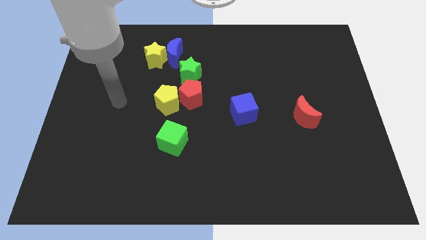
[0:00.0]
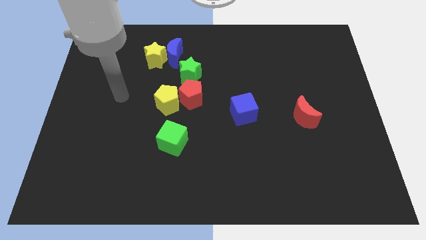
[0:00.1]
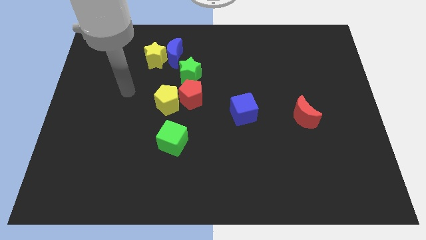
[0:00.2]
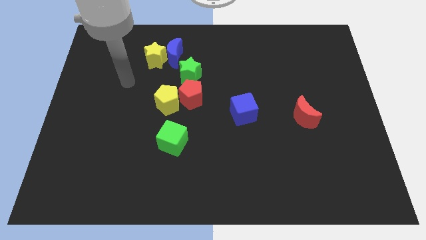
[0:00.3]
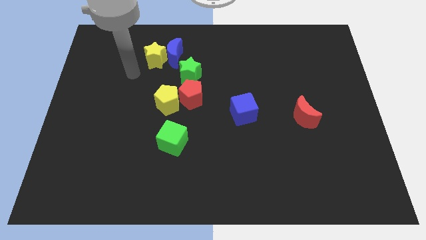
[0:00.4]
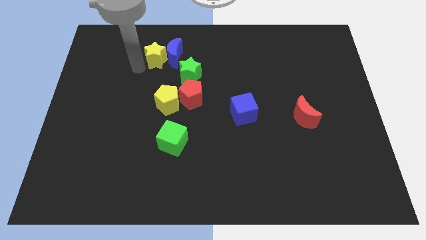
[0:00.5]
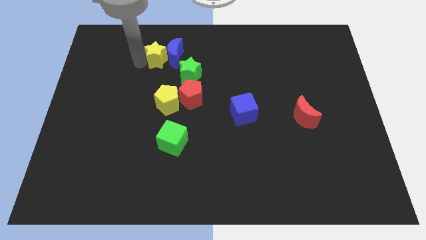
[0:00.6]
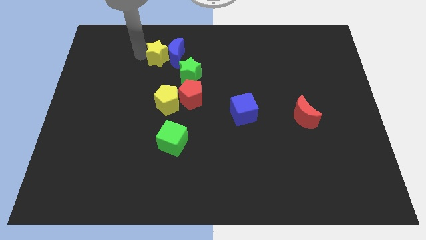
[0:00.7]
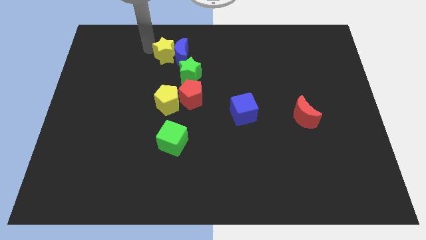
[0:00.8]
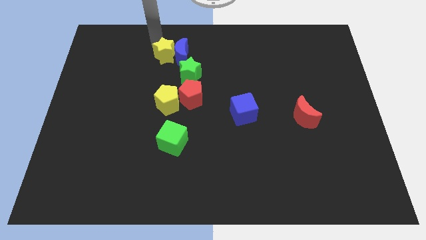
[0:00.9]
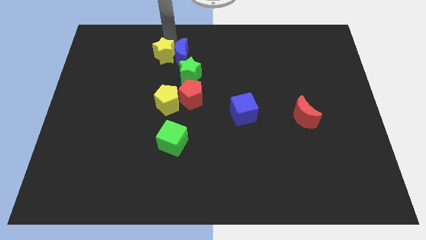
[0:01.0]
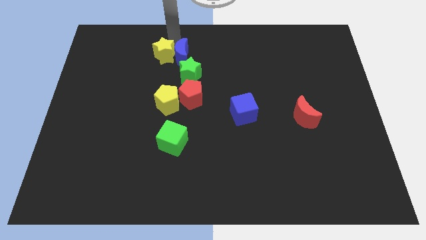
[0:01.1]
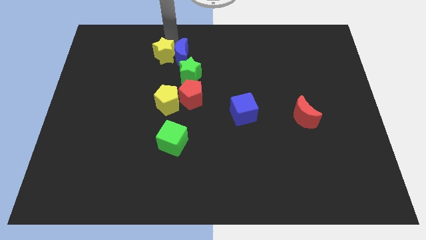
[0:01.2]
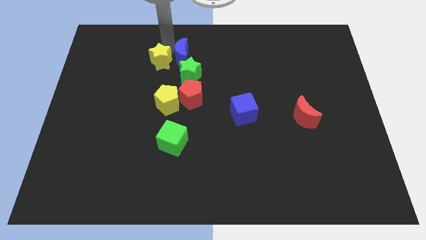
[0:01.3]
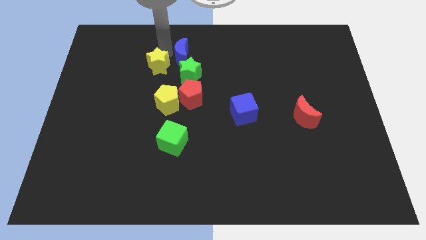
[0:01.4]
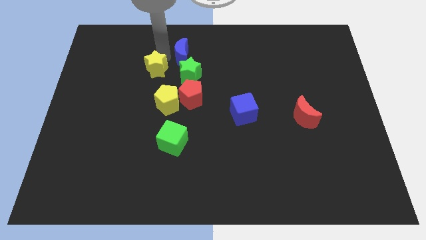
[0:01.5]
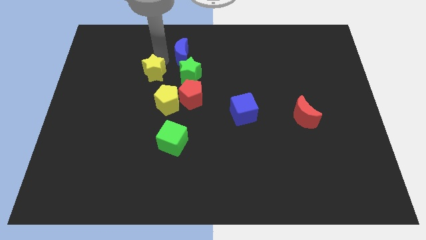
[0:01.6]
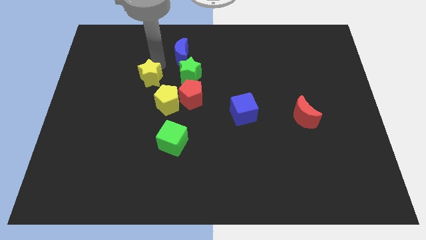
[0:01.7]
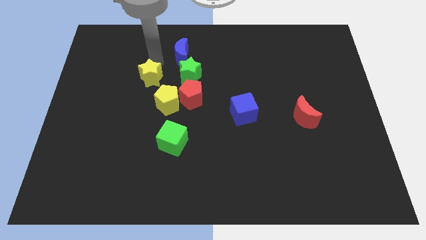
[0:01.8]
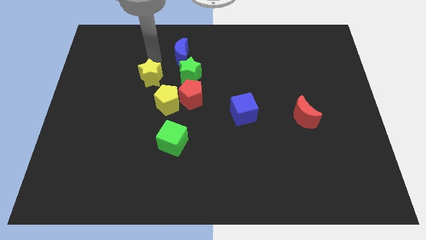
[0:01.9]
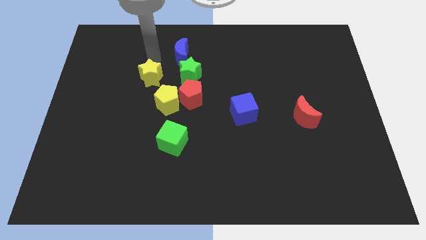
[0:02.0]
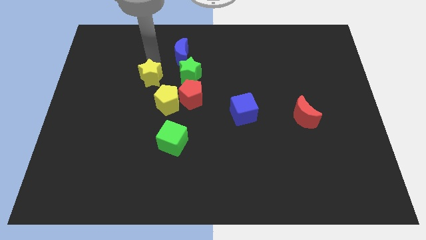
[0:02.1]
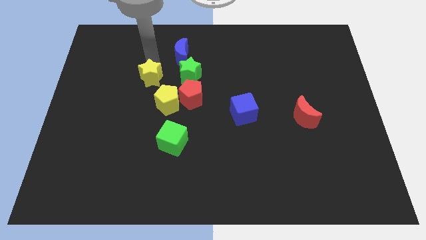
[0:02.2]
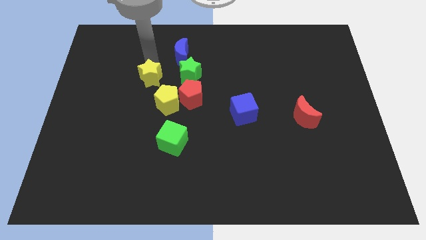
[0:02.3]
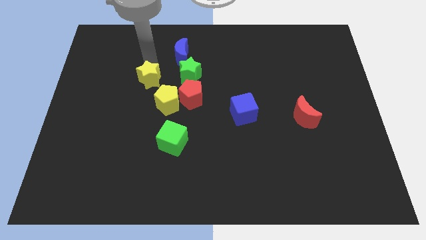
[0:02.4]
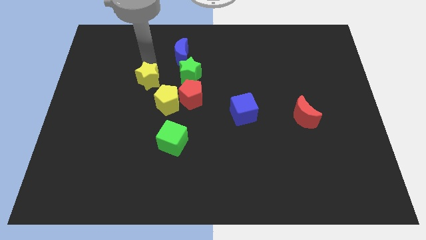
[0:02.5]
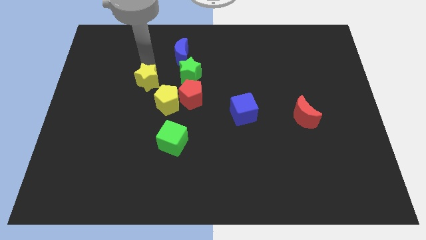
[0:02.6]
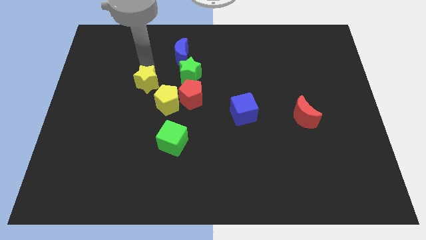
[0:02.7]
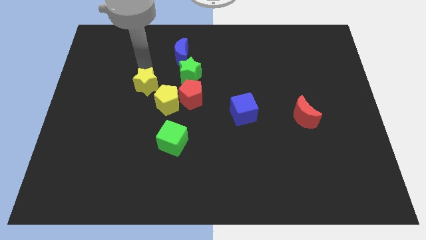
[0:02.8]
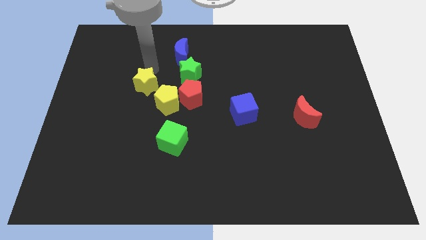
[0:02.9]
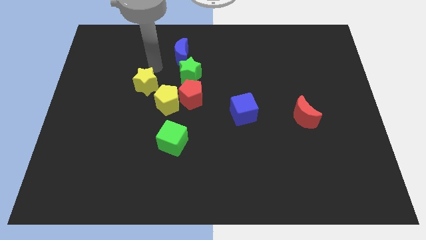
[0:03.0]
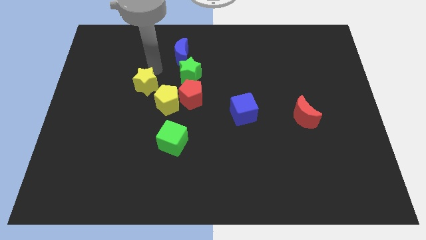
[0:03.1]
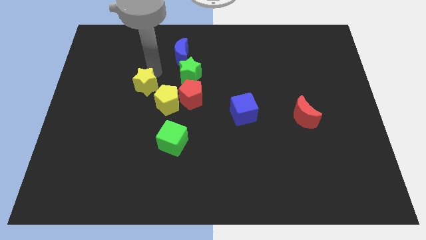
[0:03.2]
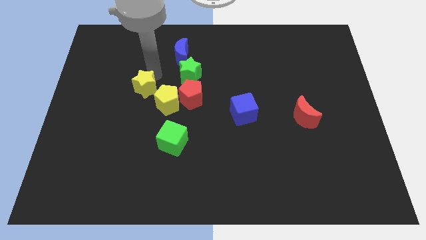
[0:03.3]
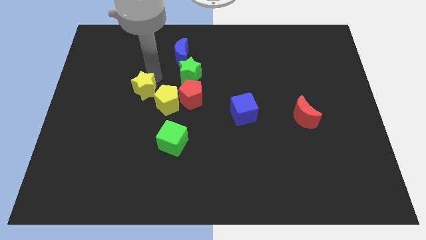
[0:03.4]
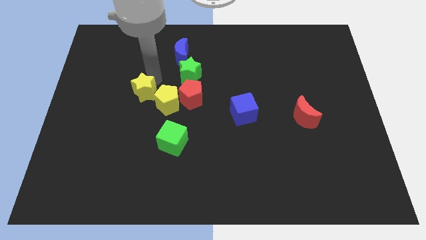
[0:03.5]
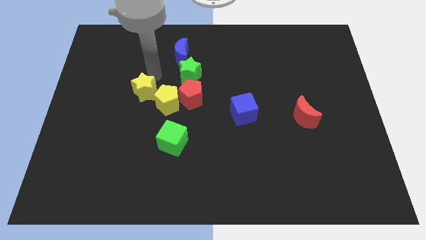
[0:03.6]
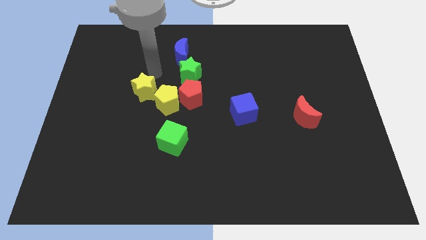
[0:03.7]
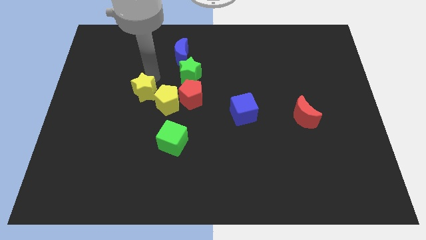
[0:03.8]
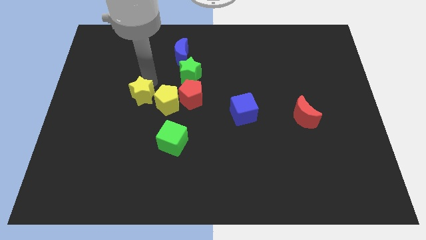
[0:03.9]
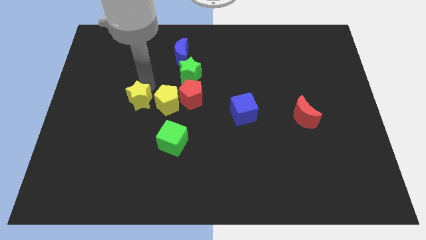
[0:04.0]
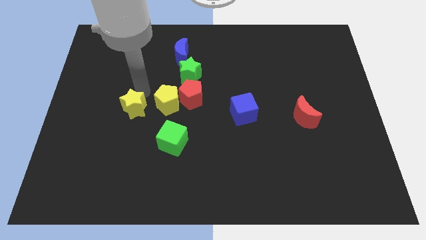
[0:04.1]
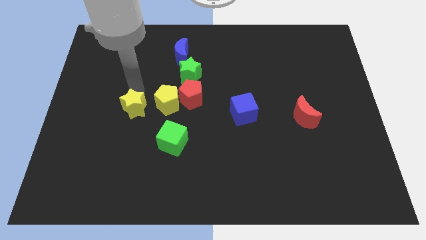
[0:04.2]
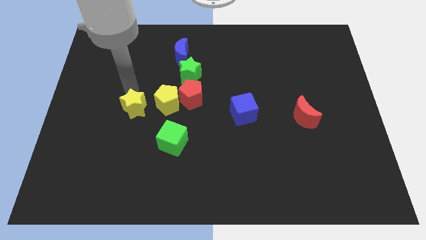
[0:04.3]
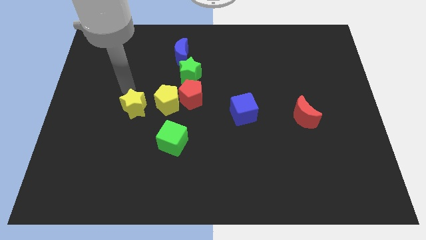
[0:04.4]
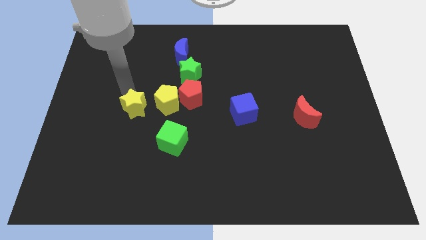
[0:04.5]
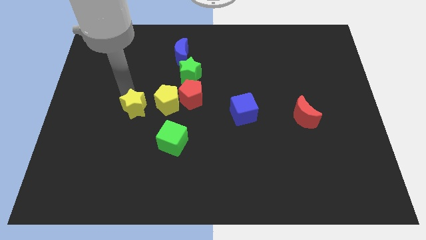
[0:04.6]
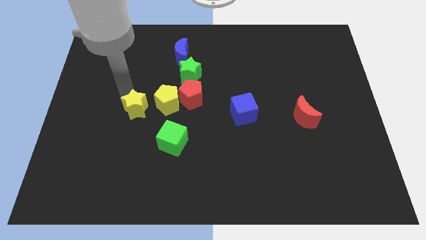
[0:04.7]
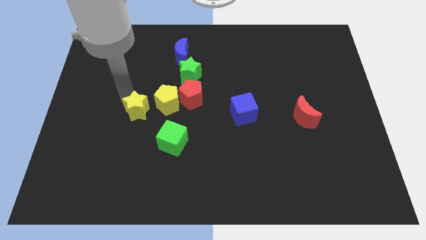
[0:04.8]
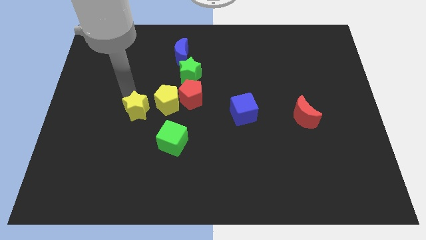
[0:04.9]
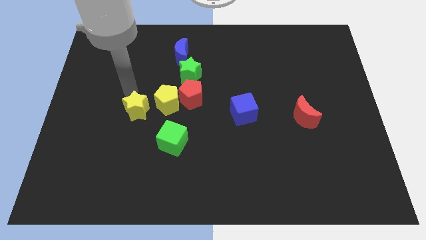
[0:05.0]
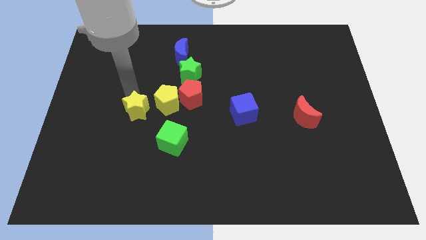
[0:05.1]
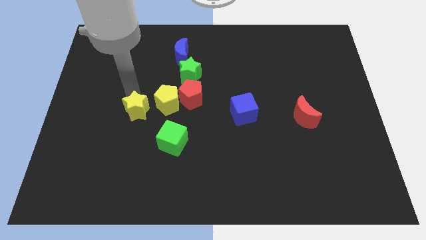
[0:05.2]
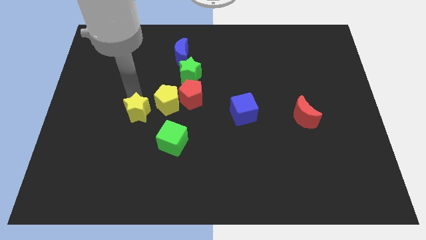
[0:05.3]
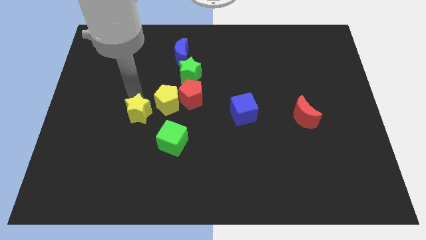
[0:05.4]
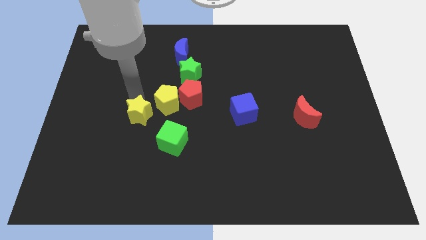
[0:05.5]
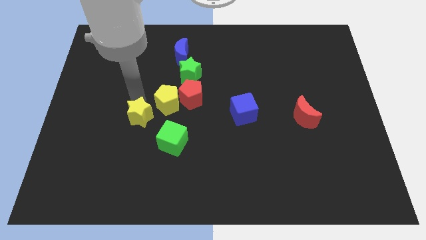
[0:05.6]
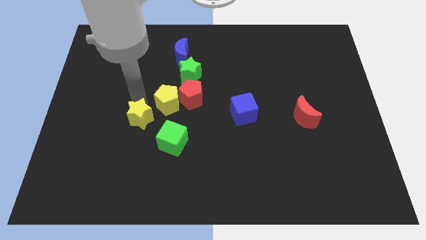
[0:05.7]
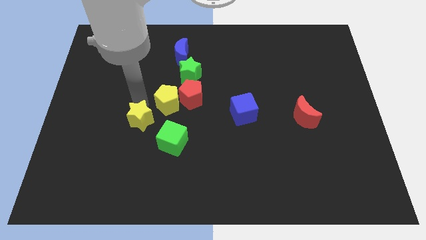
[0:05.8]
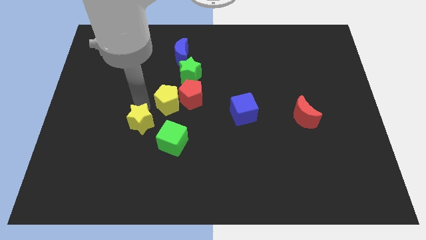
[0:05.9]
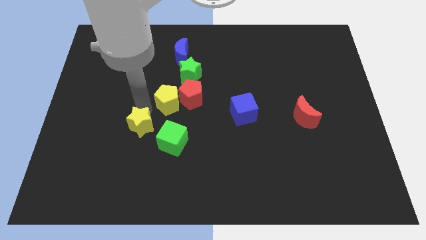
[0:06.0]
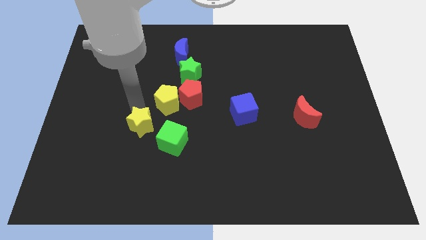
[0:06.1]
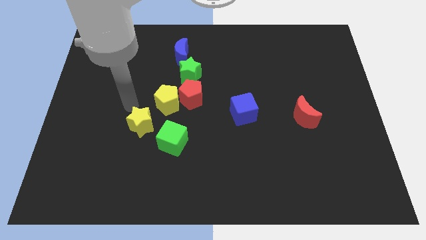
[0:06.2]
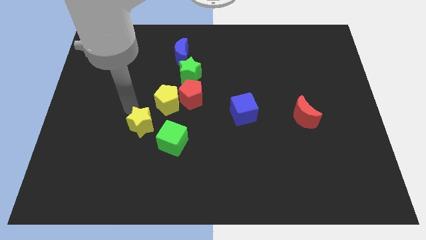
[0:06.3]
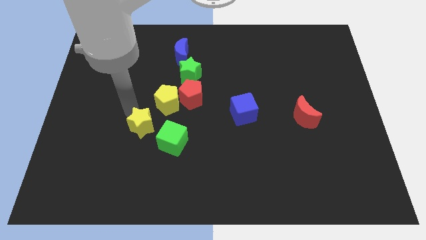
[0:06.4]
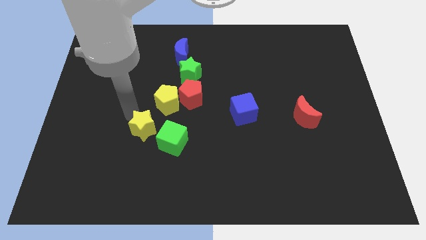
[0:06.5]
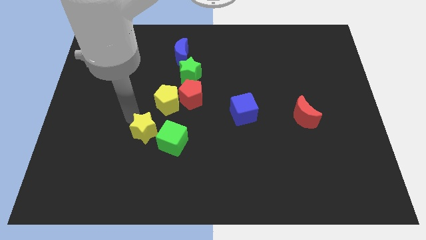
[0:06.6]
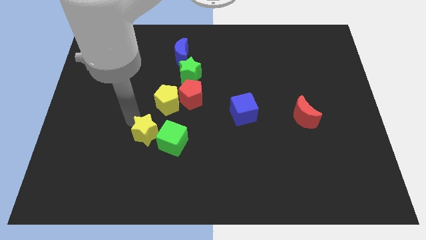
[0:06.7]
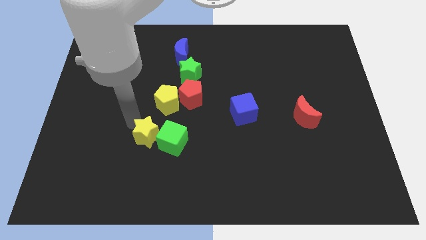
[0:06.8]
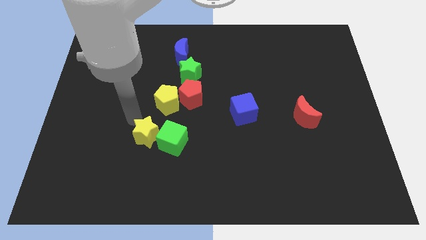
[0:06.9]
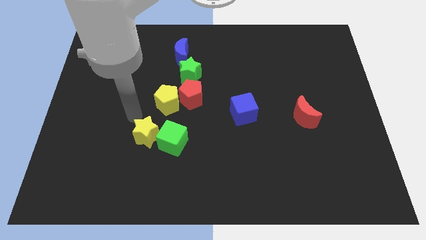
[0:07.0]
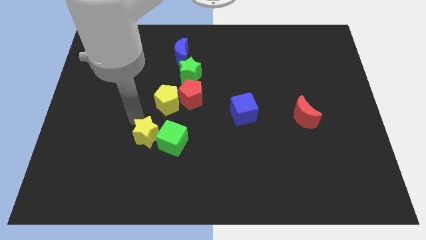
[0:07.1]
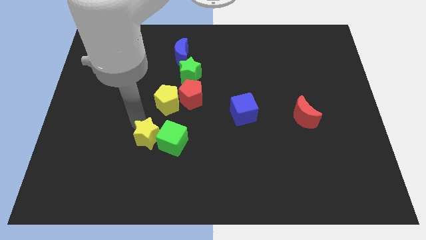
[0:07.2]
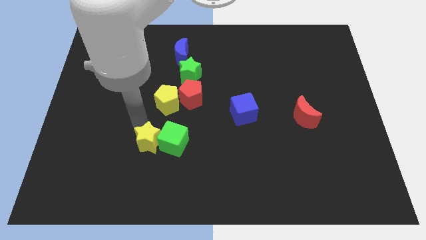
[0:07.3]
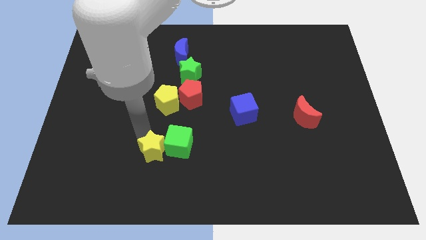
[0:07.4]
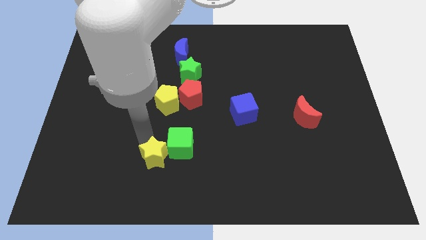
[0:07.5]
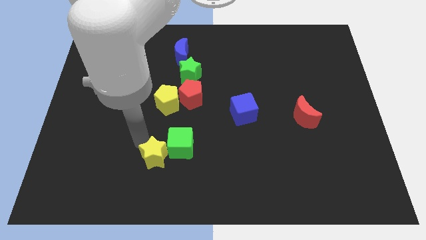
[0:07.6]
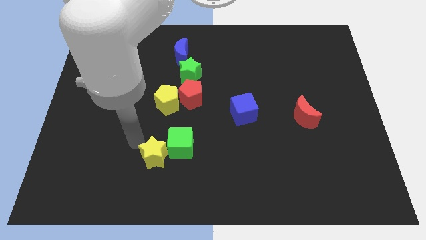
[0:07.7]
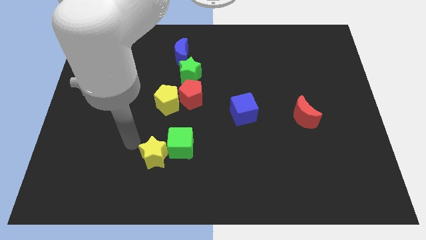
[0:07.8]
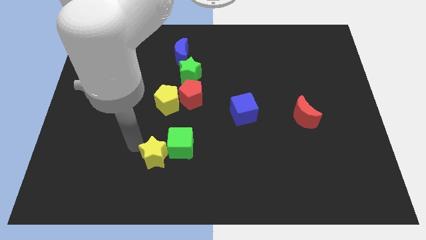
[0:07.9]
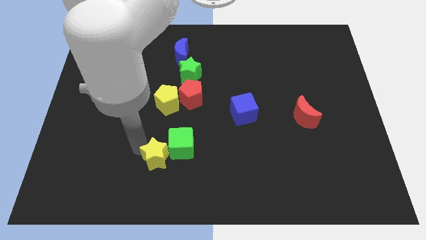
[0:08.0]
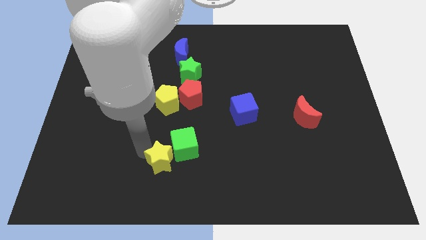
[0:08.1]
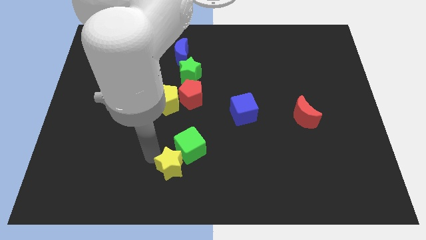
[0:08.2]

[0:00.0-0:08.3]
slide the yellow star to the bottom side
